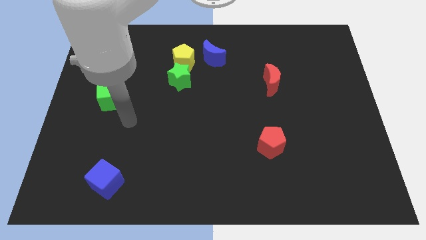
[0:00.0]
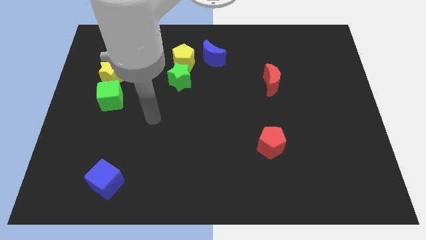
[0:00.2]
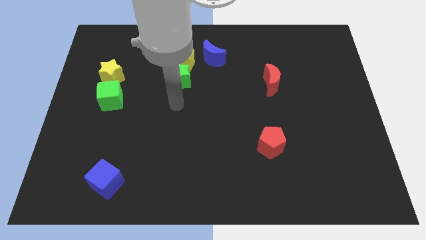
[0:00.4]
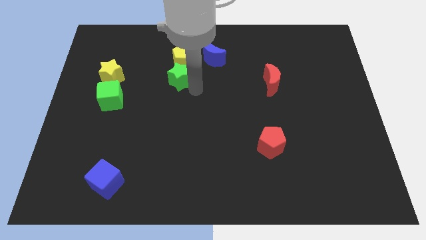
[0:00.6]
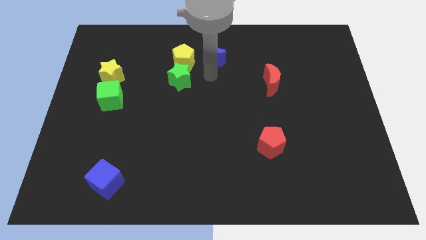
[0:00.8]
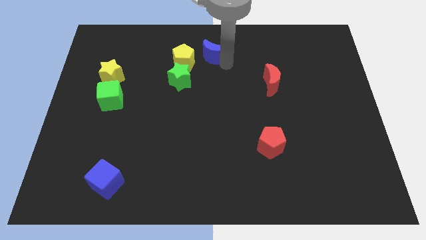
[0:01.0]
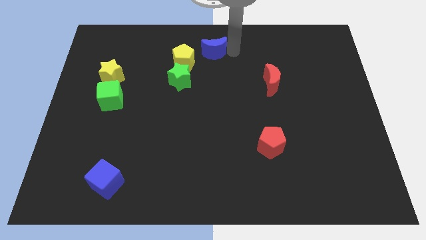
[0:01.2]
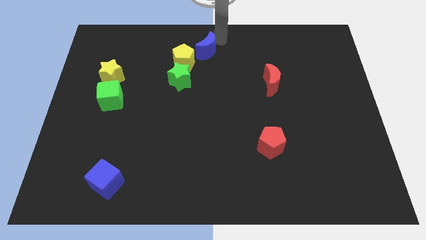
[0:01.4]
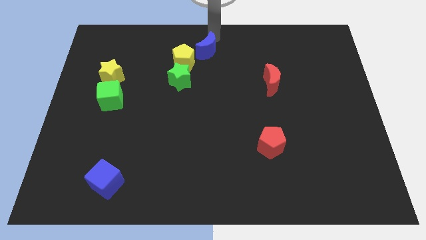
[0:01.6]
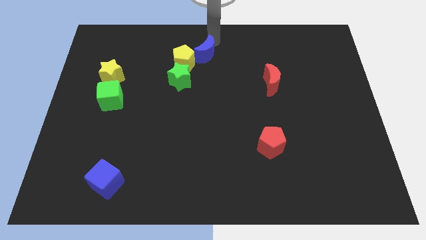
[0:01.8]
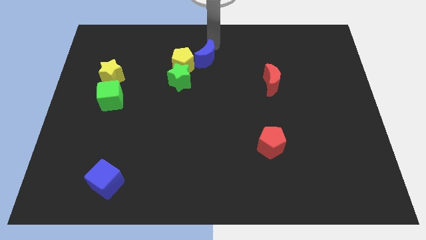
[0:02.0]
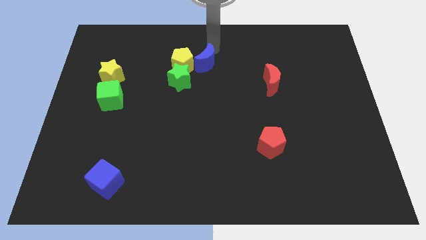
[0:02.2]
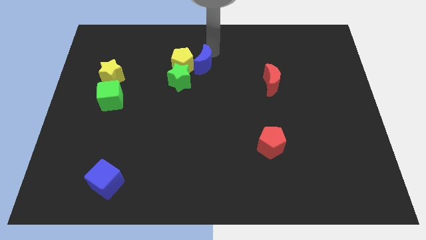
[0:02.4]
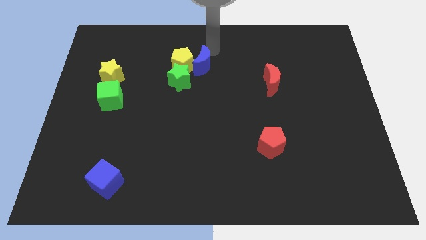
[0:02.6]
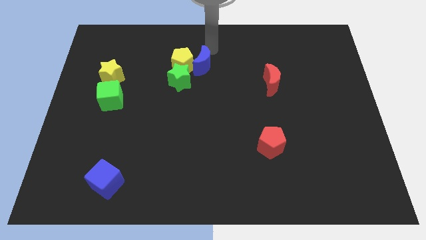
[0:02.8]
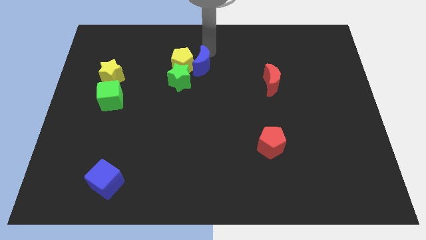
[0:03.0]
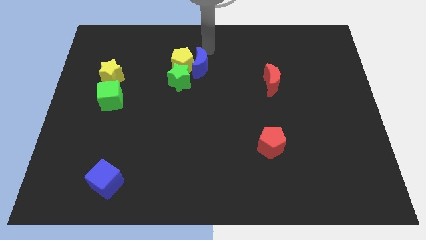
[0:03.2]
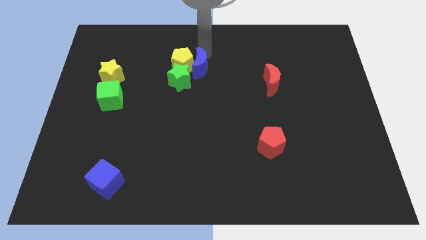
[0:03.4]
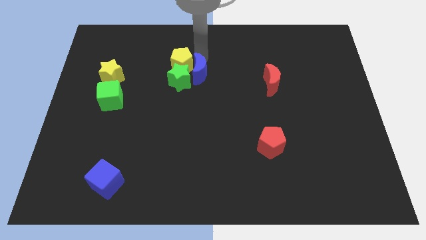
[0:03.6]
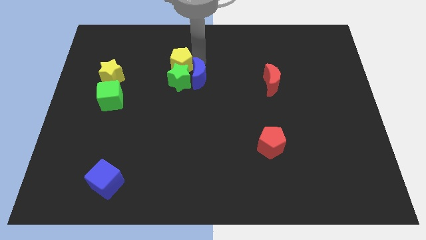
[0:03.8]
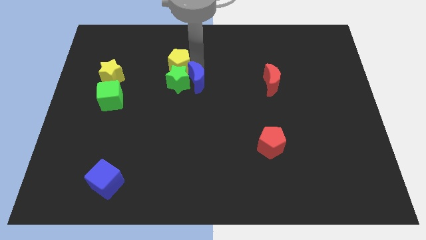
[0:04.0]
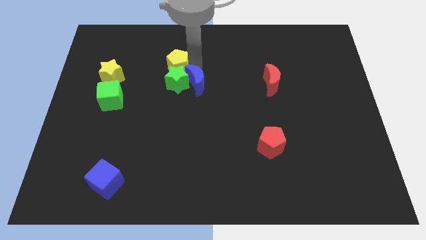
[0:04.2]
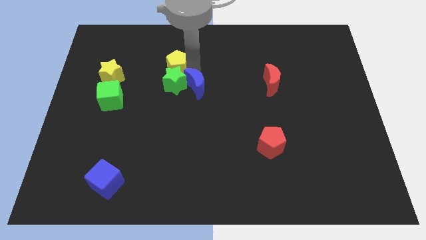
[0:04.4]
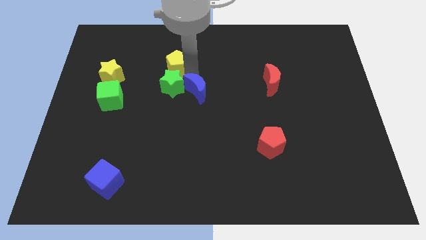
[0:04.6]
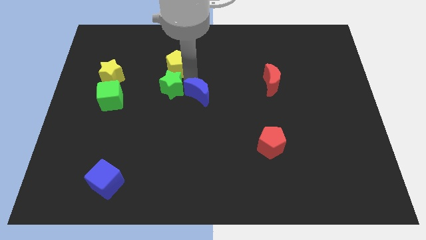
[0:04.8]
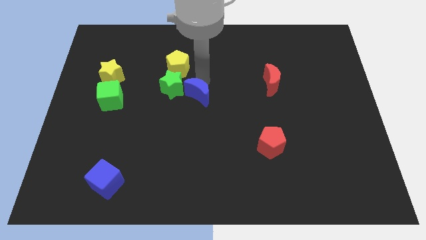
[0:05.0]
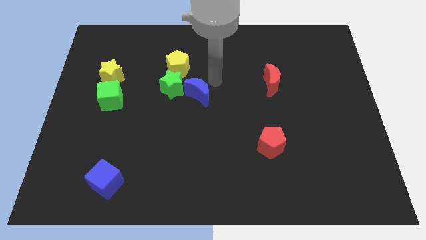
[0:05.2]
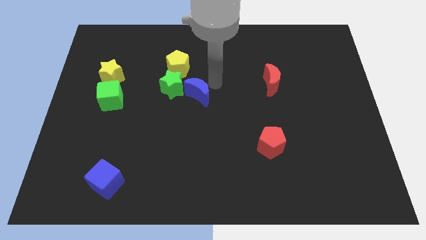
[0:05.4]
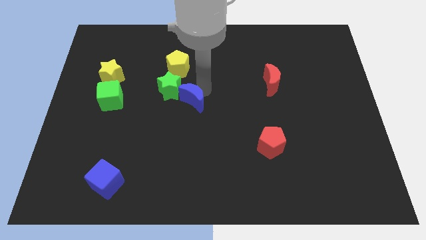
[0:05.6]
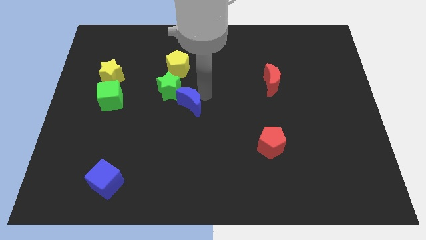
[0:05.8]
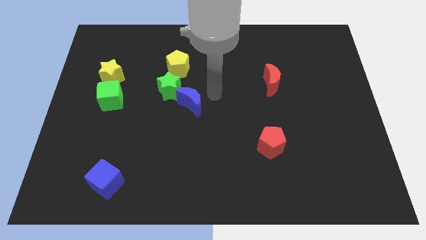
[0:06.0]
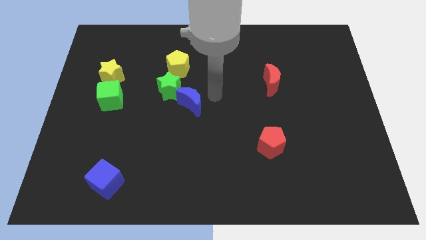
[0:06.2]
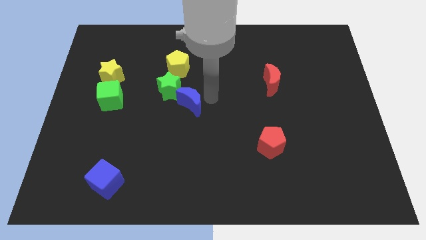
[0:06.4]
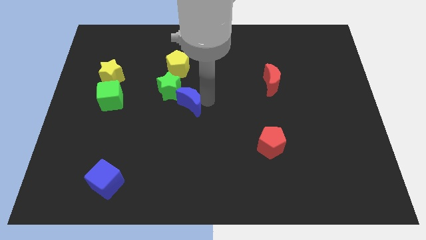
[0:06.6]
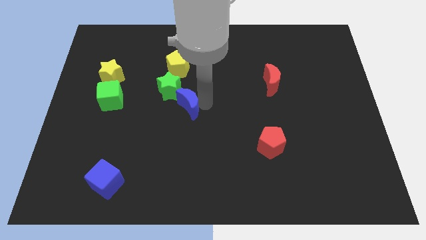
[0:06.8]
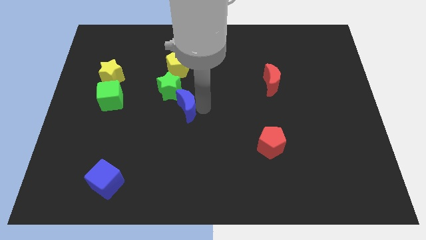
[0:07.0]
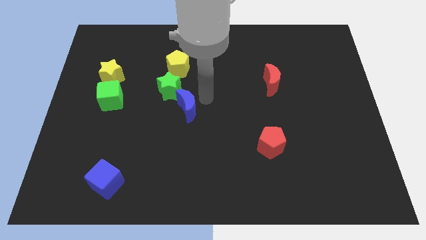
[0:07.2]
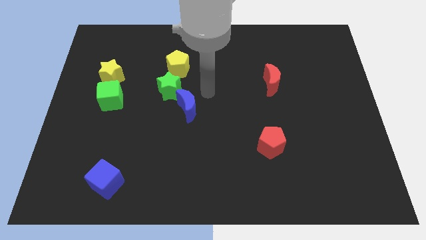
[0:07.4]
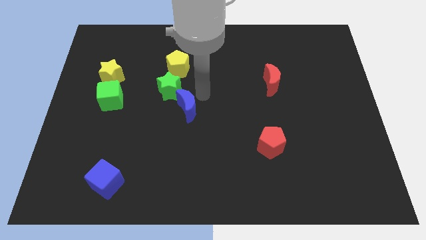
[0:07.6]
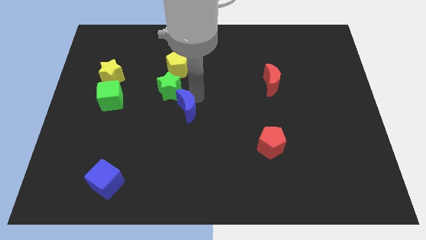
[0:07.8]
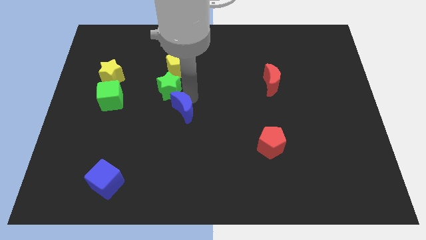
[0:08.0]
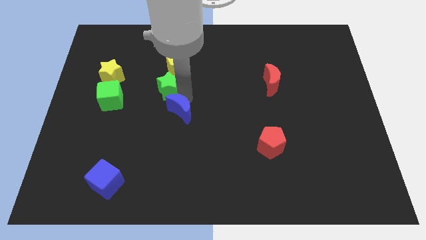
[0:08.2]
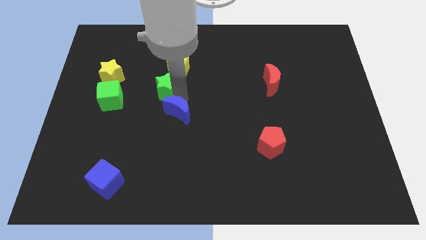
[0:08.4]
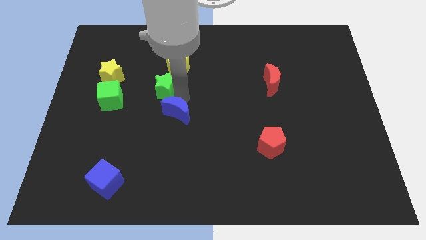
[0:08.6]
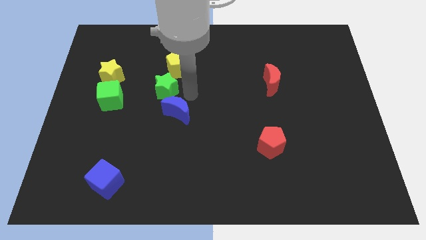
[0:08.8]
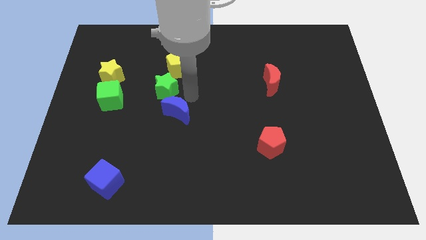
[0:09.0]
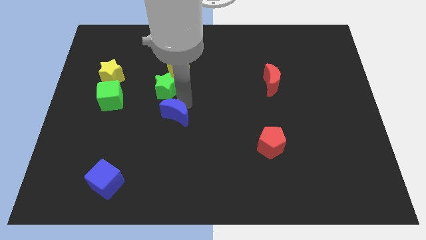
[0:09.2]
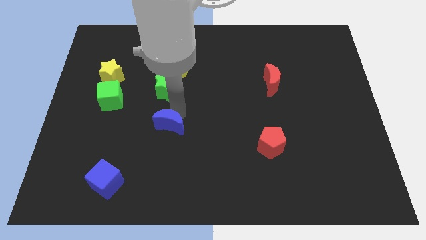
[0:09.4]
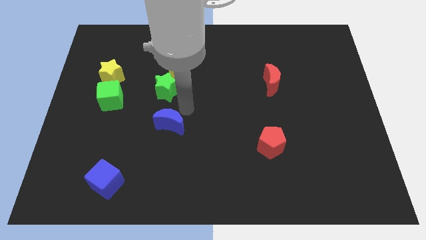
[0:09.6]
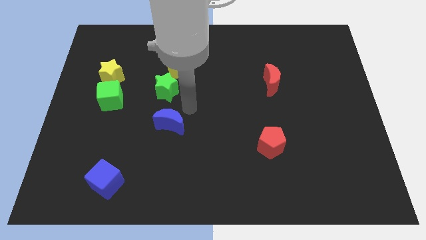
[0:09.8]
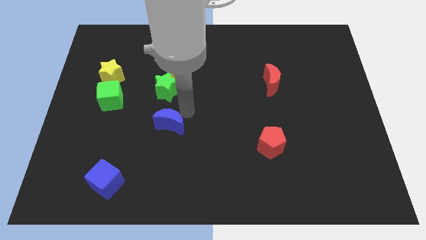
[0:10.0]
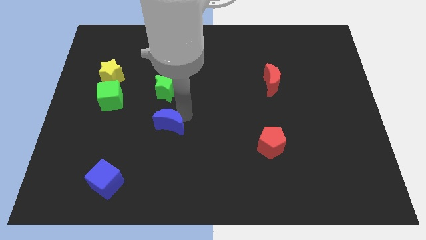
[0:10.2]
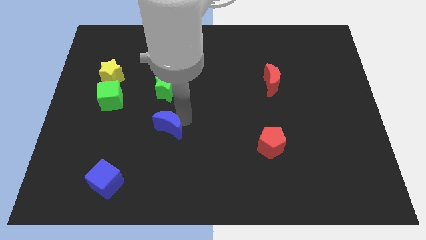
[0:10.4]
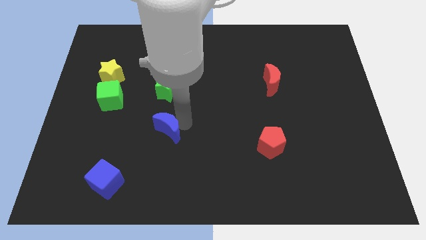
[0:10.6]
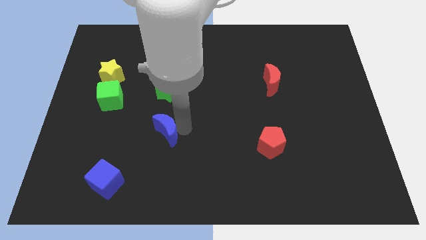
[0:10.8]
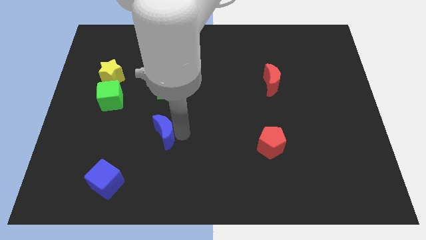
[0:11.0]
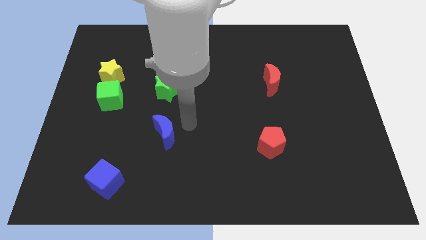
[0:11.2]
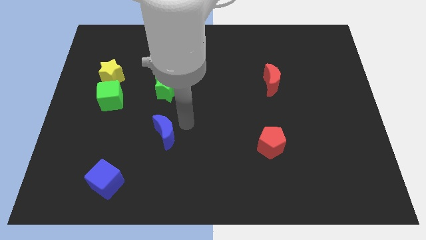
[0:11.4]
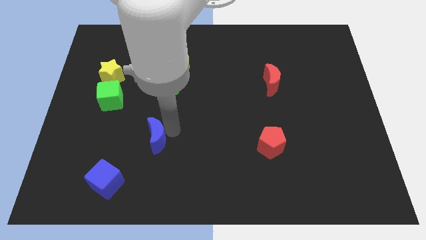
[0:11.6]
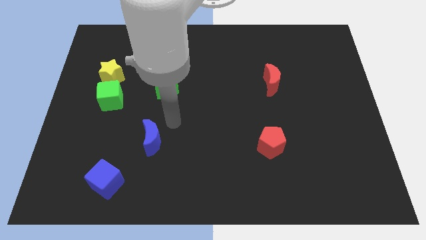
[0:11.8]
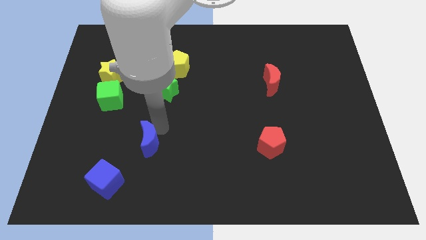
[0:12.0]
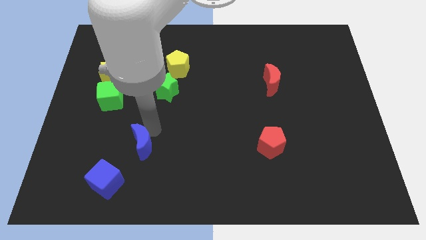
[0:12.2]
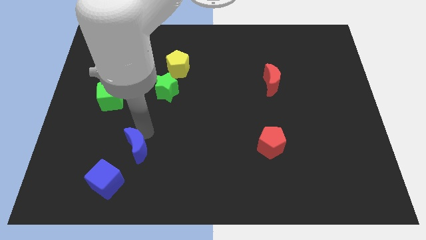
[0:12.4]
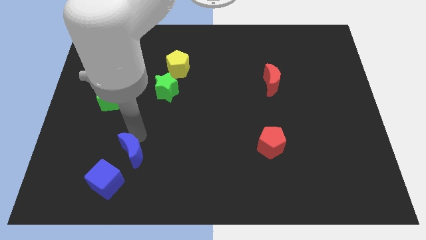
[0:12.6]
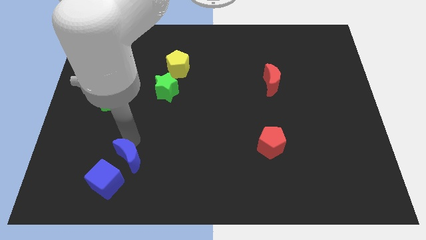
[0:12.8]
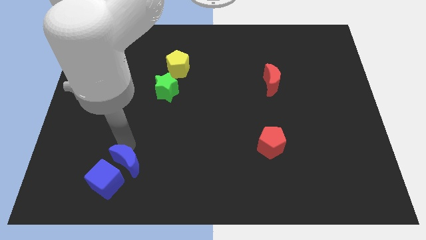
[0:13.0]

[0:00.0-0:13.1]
slide the blue moon to the blue cube

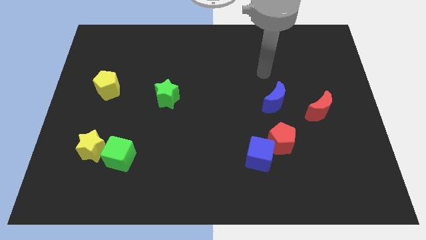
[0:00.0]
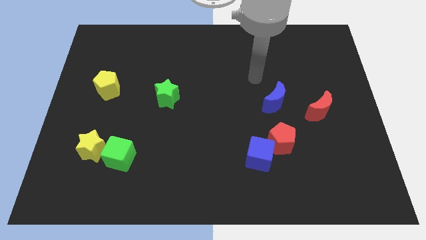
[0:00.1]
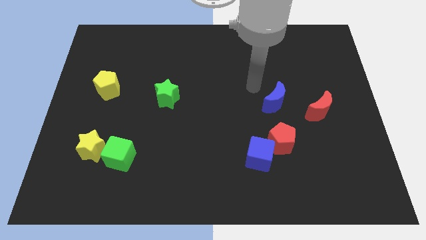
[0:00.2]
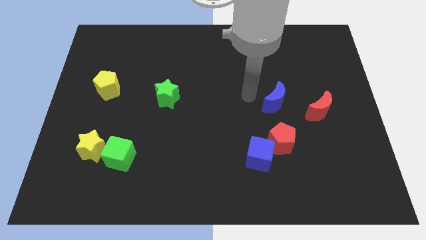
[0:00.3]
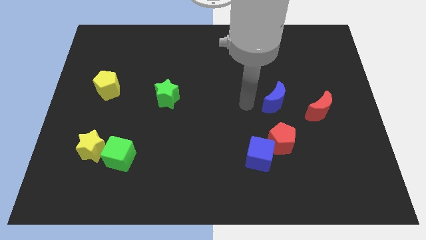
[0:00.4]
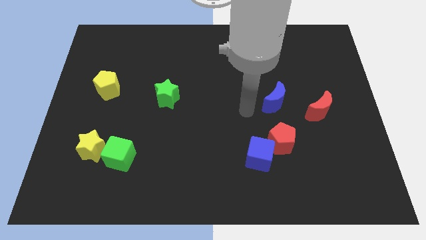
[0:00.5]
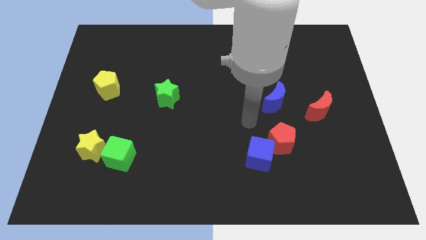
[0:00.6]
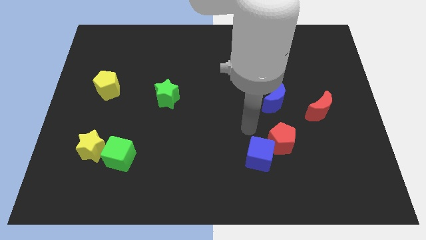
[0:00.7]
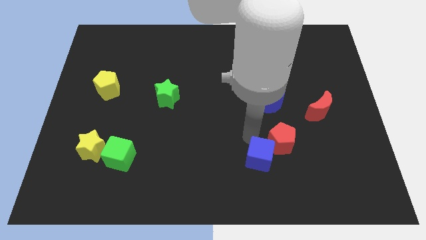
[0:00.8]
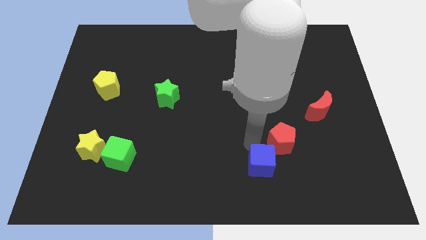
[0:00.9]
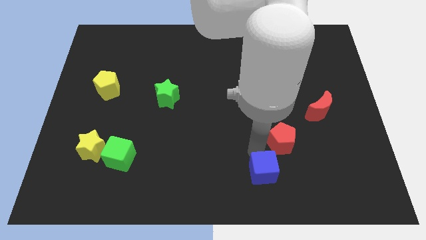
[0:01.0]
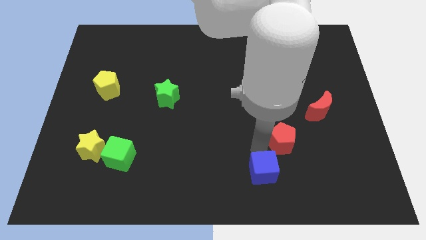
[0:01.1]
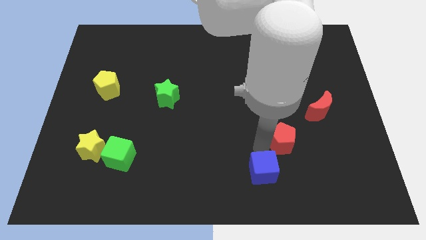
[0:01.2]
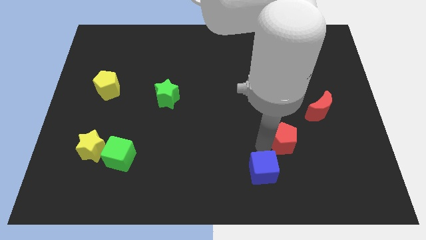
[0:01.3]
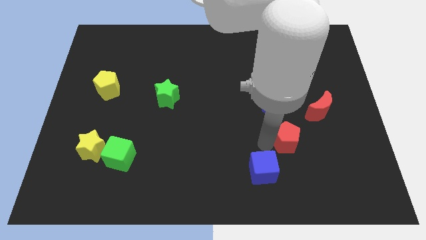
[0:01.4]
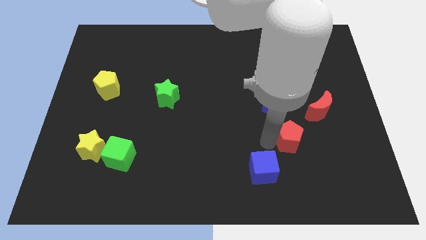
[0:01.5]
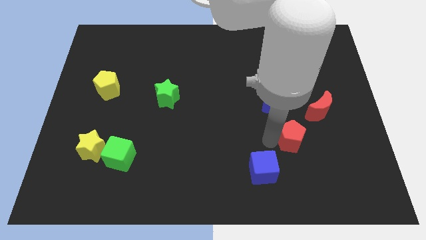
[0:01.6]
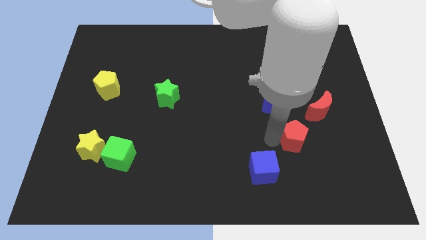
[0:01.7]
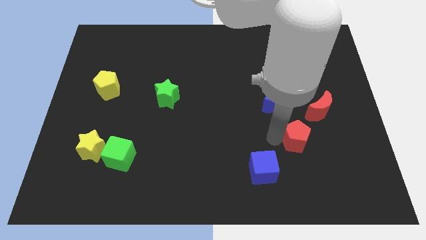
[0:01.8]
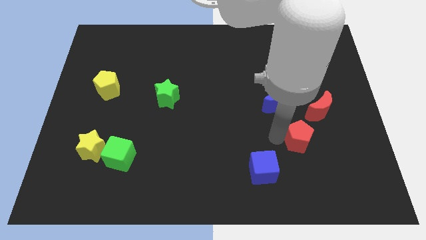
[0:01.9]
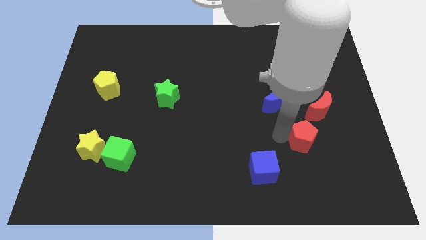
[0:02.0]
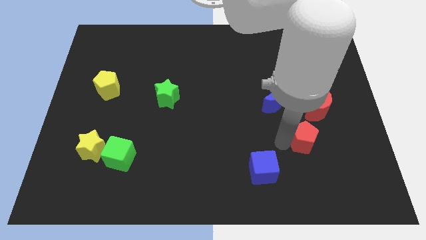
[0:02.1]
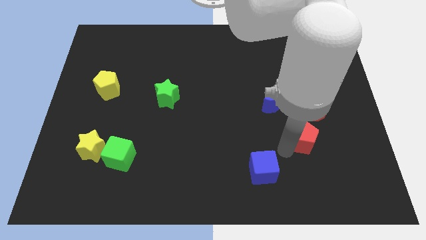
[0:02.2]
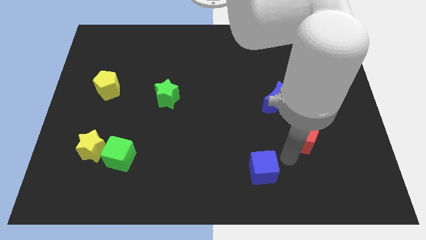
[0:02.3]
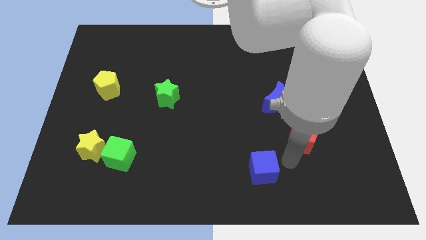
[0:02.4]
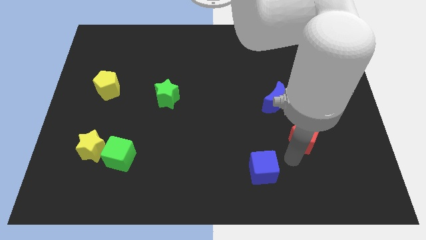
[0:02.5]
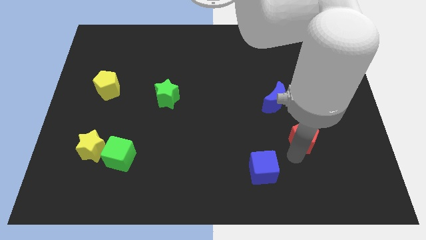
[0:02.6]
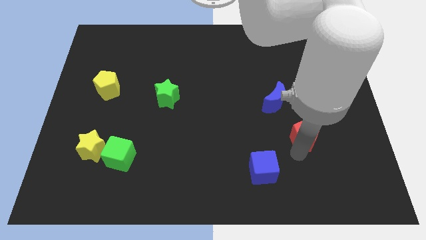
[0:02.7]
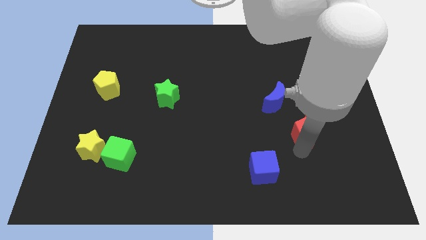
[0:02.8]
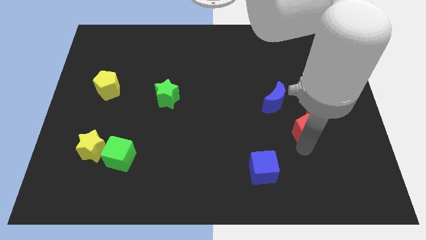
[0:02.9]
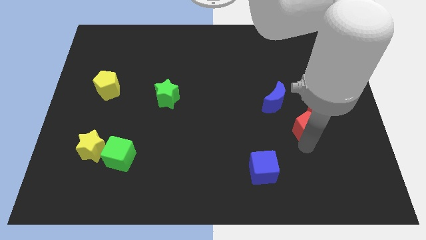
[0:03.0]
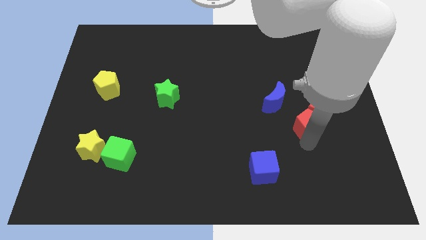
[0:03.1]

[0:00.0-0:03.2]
push the red pentagon close to the red moon
